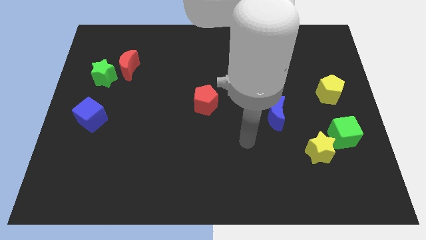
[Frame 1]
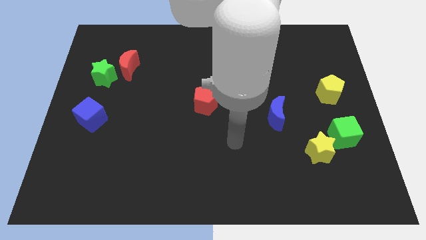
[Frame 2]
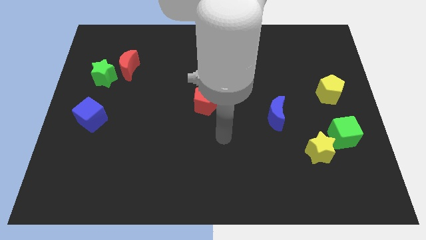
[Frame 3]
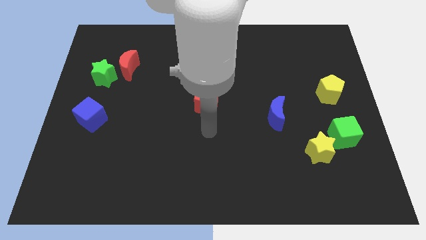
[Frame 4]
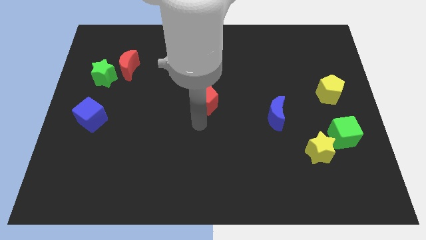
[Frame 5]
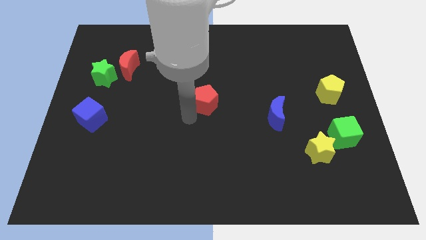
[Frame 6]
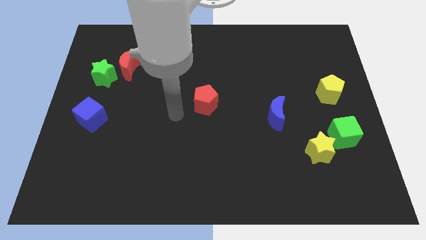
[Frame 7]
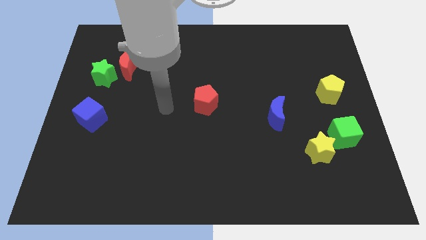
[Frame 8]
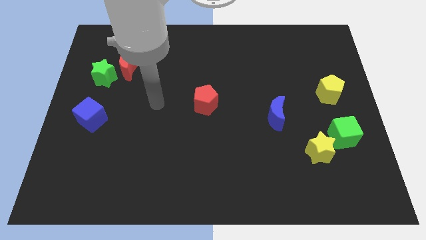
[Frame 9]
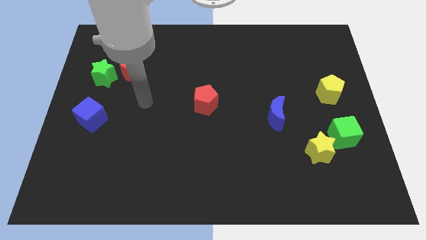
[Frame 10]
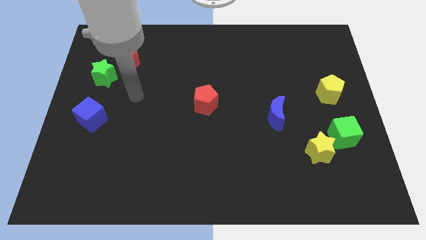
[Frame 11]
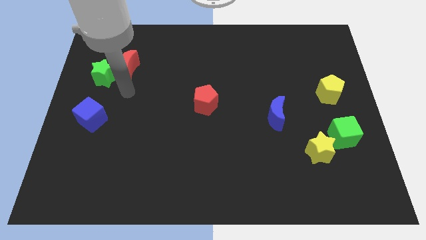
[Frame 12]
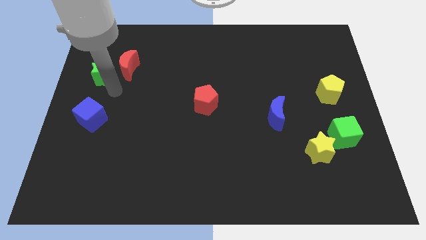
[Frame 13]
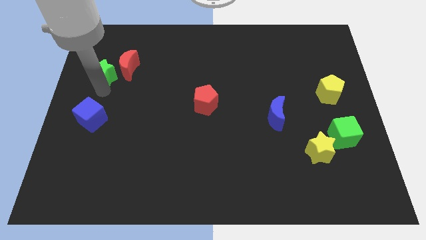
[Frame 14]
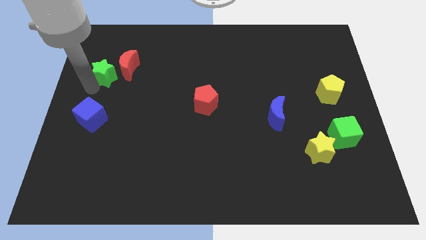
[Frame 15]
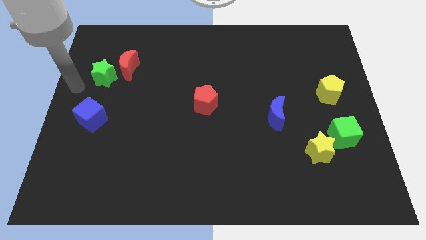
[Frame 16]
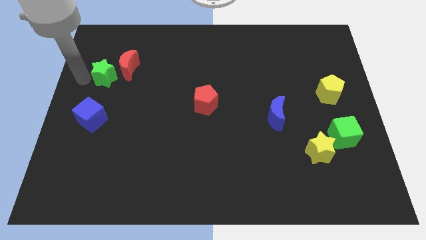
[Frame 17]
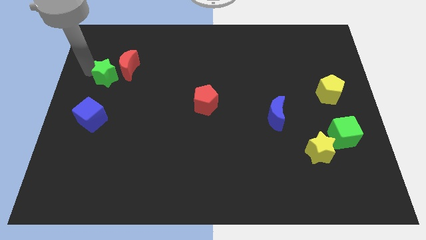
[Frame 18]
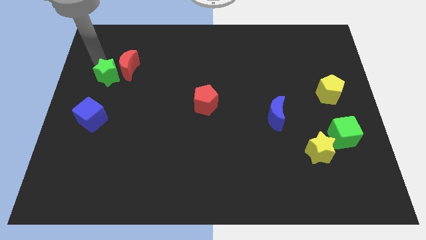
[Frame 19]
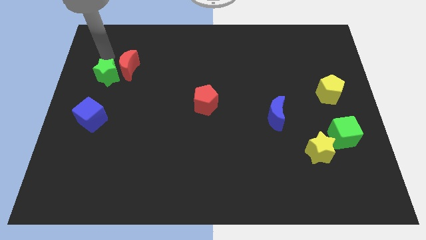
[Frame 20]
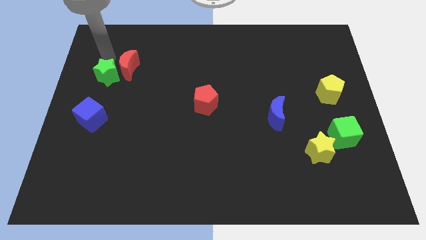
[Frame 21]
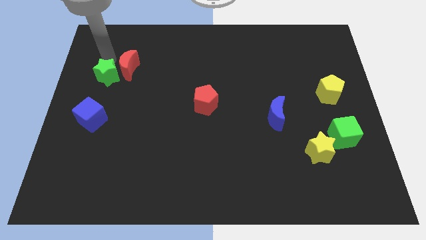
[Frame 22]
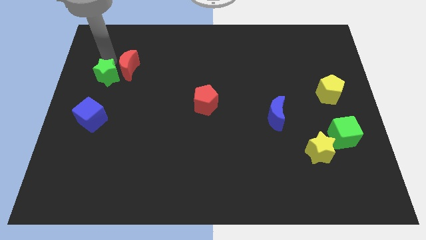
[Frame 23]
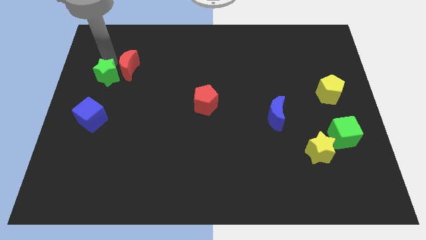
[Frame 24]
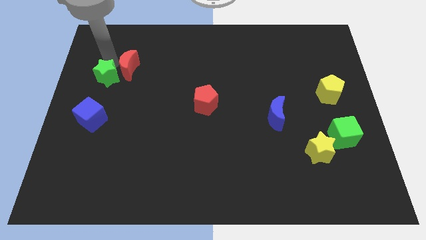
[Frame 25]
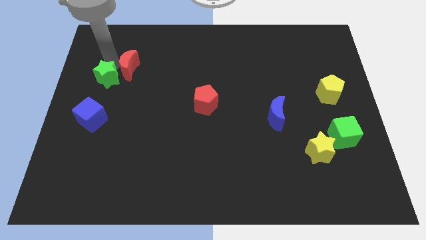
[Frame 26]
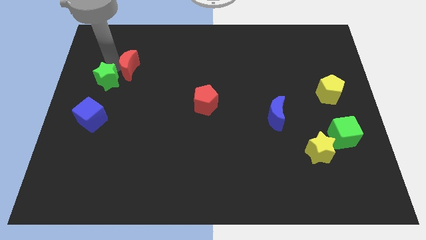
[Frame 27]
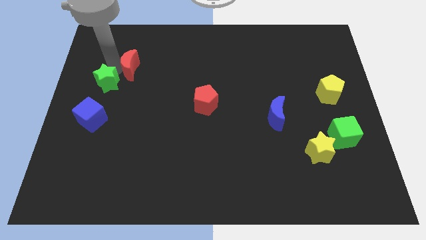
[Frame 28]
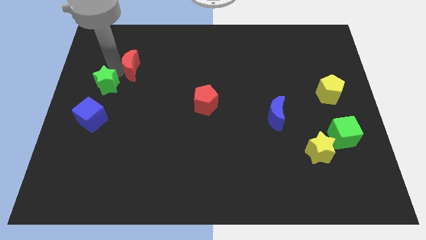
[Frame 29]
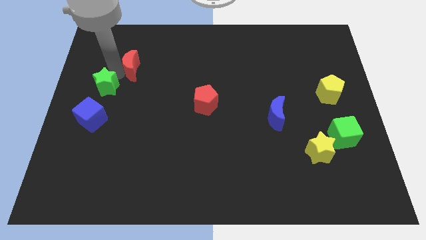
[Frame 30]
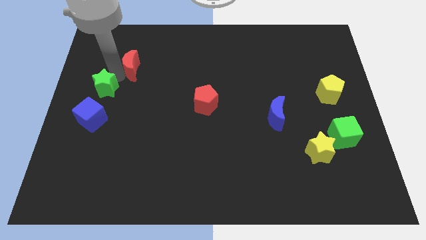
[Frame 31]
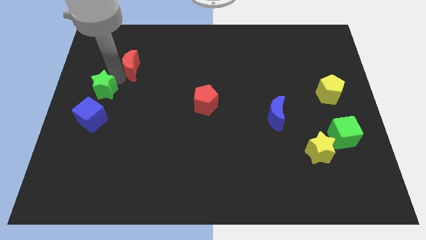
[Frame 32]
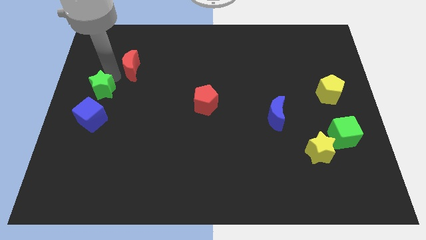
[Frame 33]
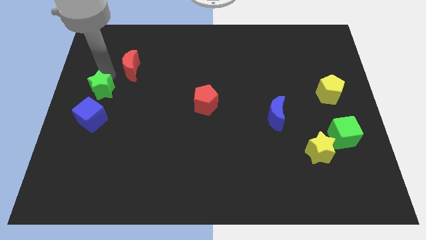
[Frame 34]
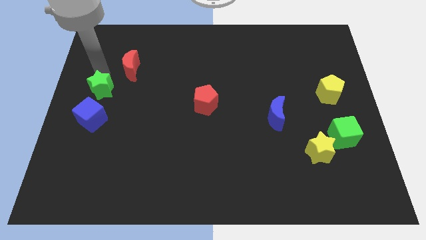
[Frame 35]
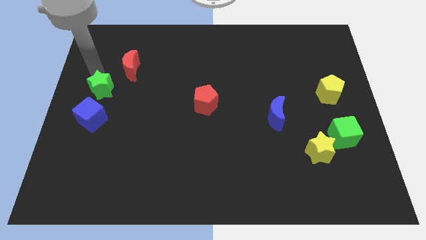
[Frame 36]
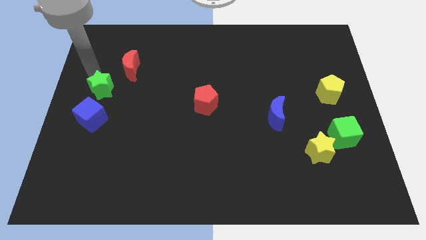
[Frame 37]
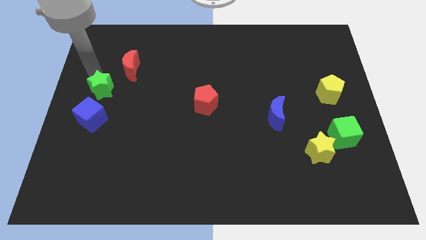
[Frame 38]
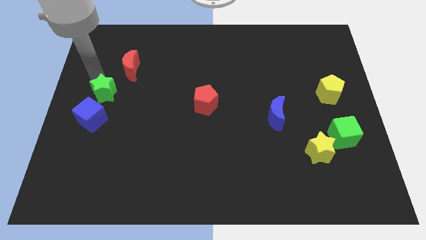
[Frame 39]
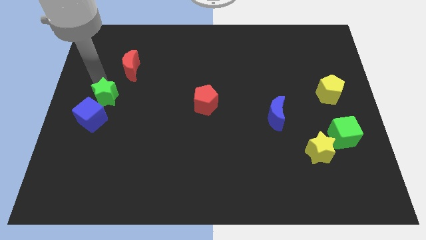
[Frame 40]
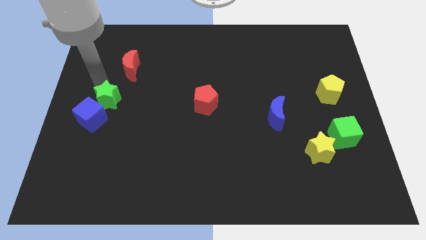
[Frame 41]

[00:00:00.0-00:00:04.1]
push the green star a little downwards

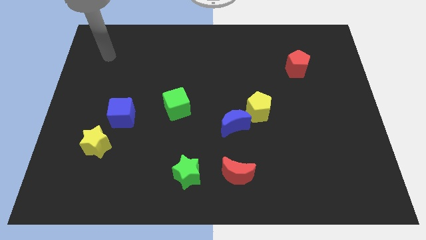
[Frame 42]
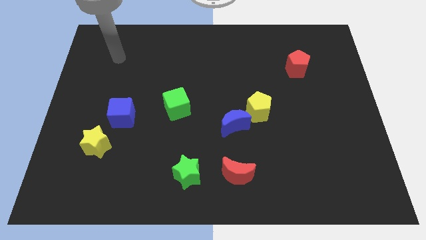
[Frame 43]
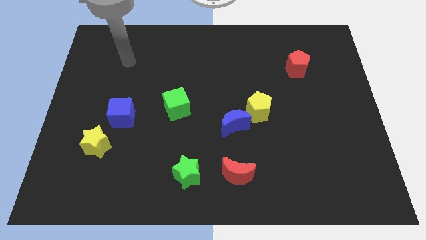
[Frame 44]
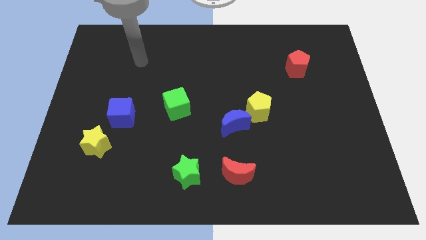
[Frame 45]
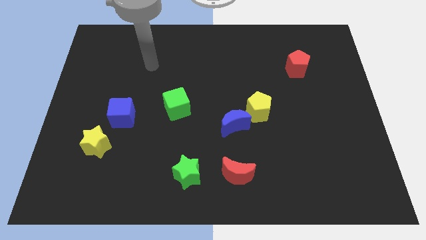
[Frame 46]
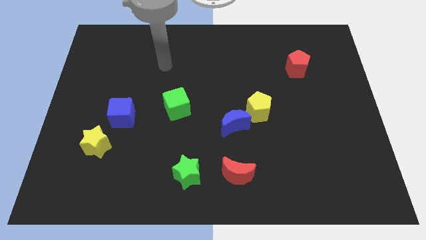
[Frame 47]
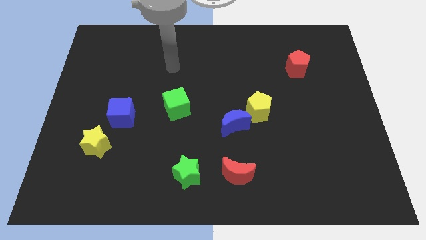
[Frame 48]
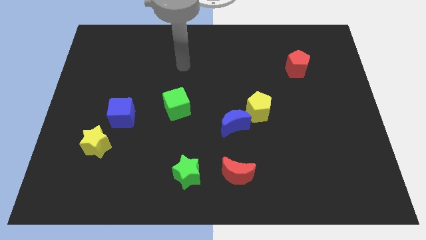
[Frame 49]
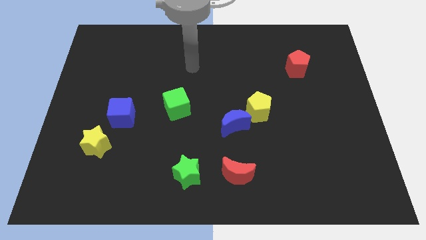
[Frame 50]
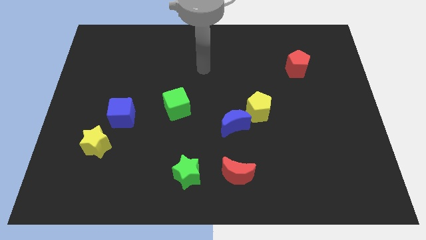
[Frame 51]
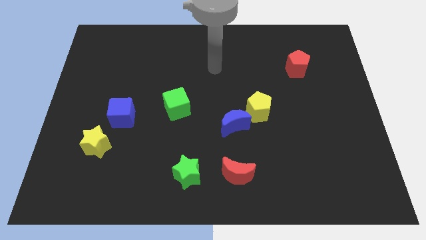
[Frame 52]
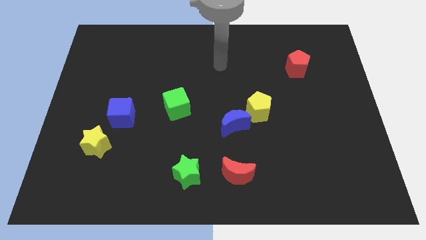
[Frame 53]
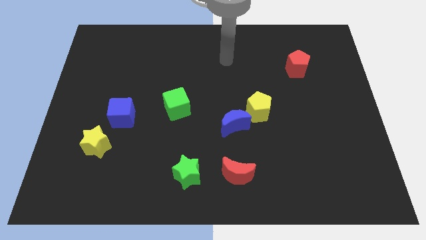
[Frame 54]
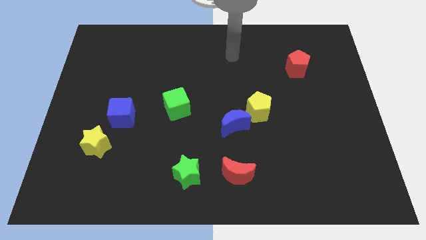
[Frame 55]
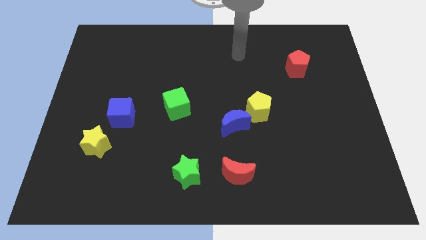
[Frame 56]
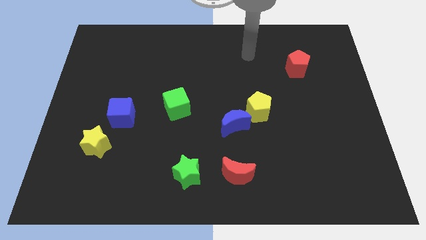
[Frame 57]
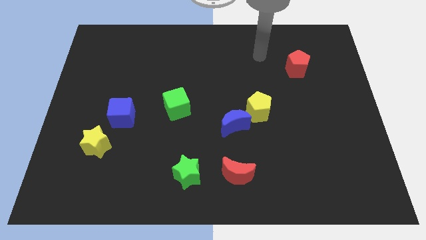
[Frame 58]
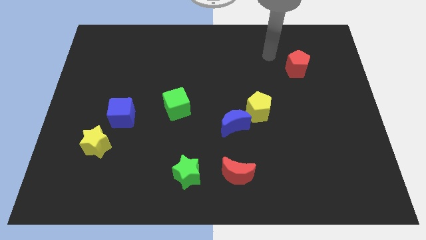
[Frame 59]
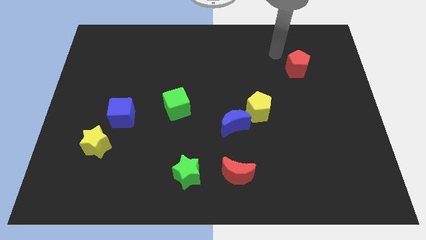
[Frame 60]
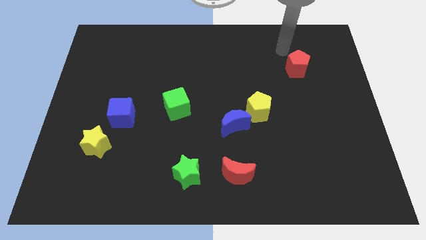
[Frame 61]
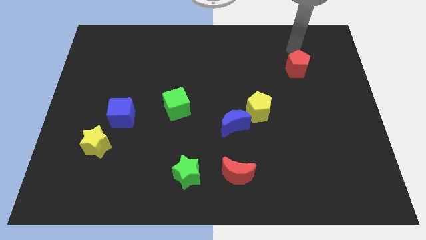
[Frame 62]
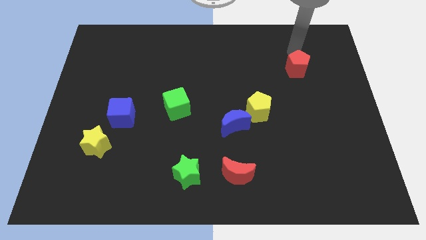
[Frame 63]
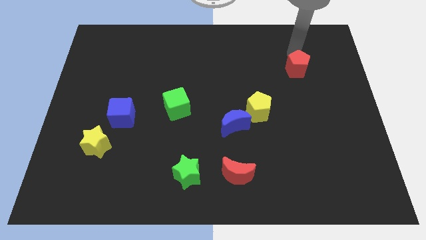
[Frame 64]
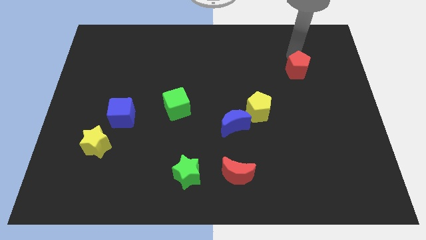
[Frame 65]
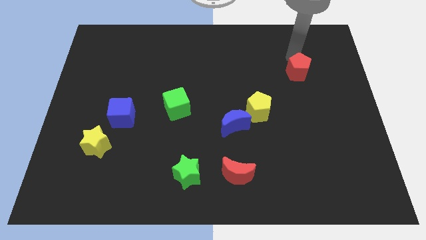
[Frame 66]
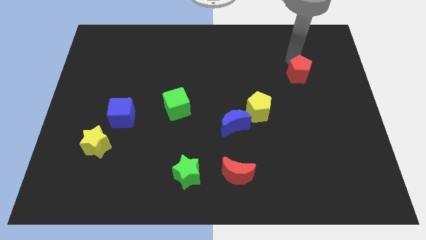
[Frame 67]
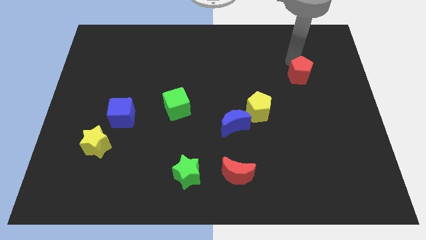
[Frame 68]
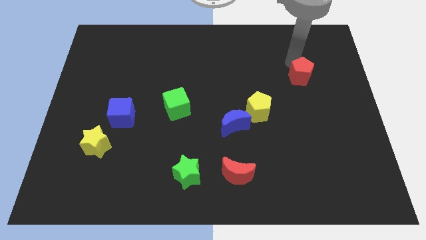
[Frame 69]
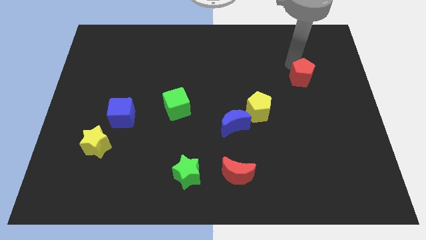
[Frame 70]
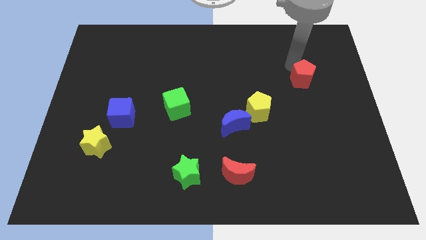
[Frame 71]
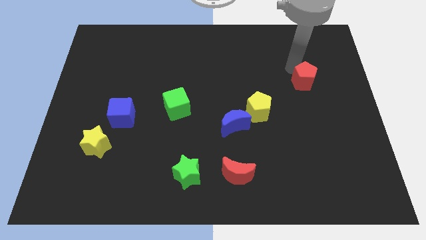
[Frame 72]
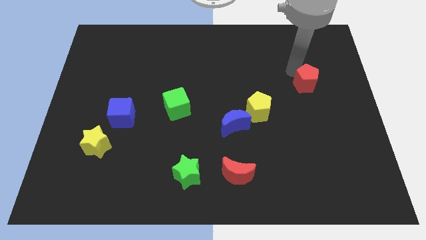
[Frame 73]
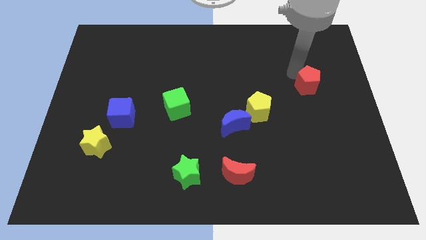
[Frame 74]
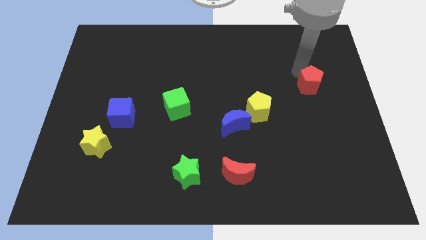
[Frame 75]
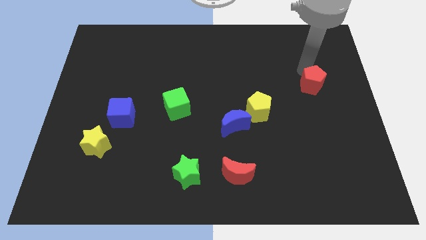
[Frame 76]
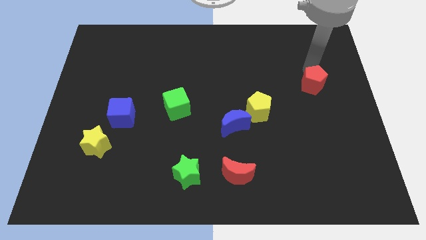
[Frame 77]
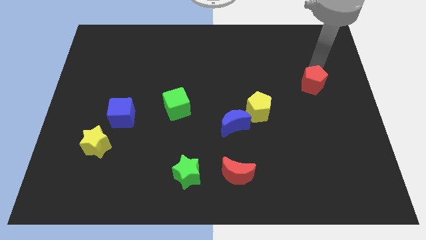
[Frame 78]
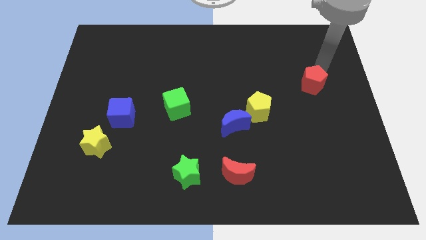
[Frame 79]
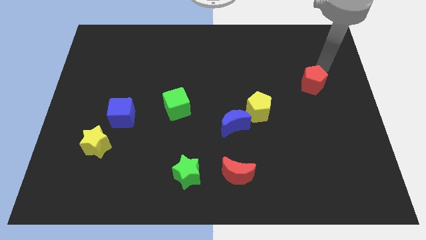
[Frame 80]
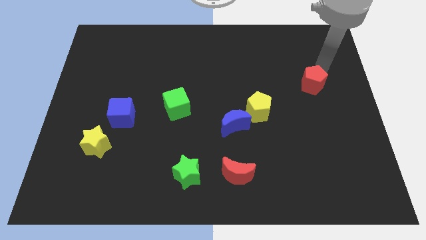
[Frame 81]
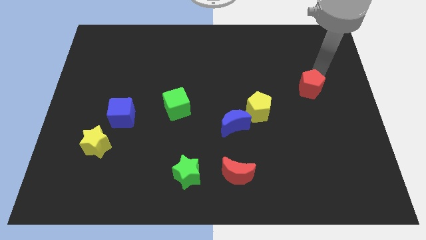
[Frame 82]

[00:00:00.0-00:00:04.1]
slide the red pentagon a little bit down
